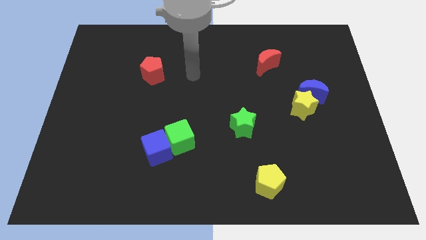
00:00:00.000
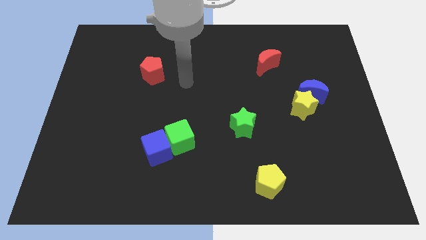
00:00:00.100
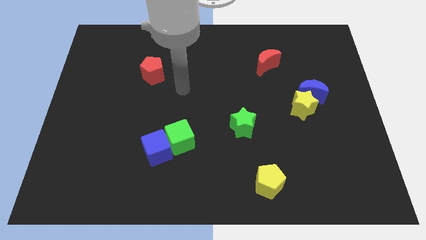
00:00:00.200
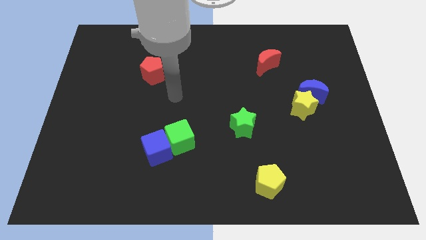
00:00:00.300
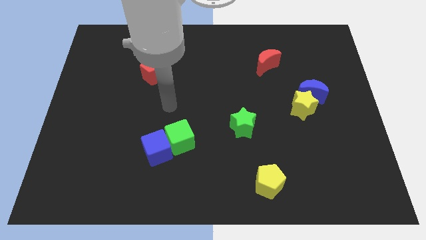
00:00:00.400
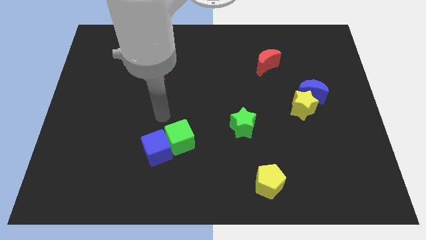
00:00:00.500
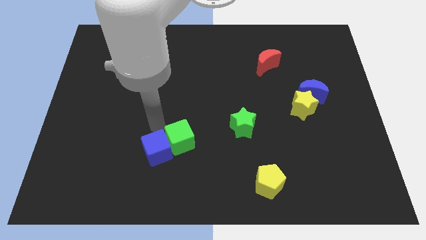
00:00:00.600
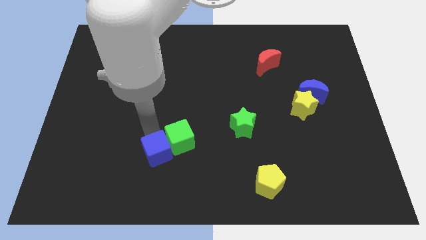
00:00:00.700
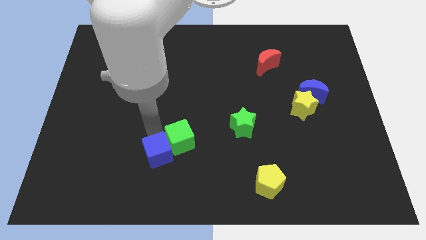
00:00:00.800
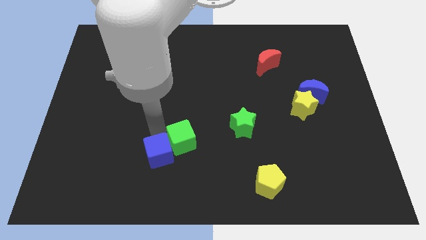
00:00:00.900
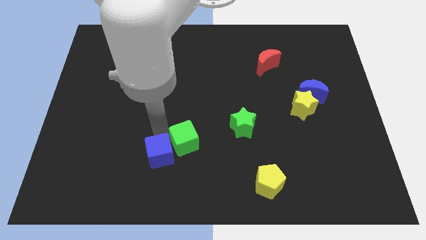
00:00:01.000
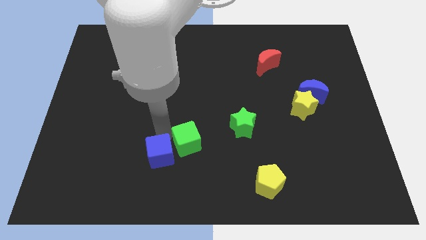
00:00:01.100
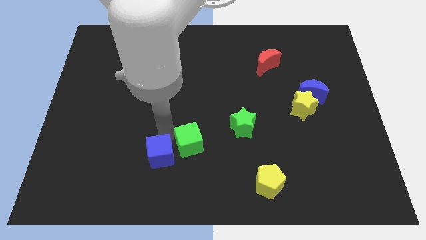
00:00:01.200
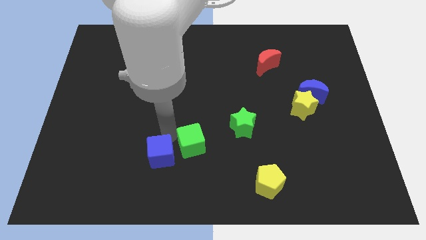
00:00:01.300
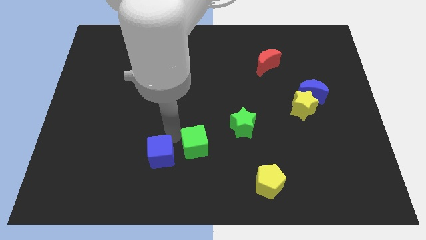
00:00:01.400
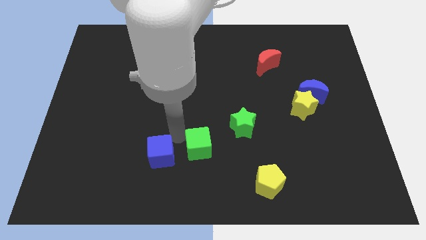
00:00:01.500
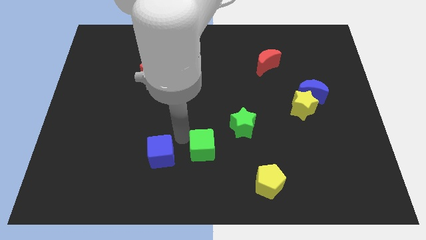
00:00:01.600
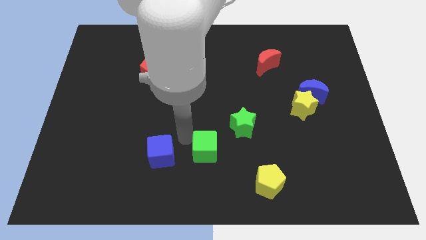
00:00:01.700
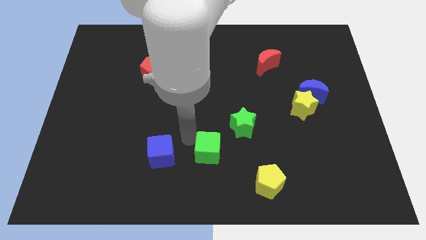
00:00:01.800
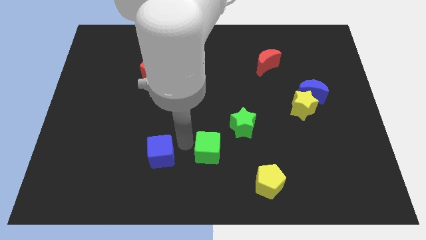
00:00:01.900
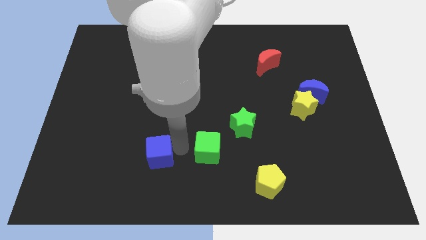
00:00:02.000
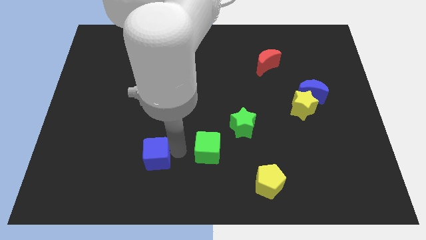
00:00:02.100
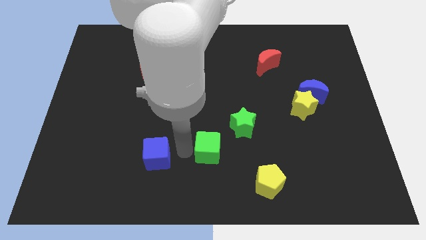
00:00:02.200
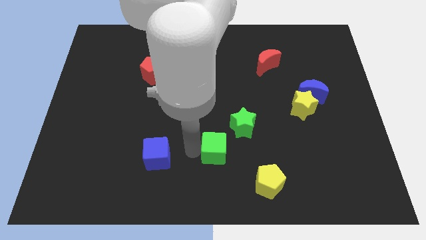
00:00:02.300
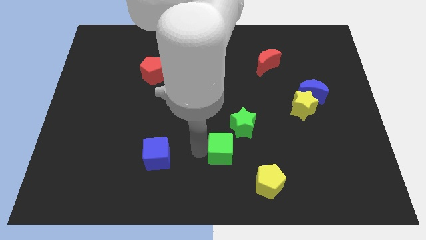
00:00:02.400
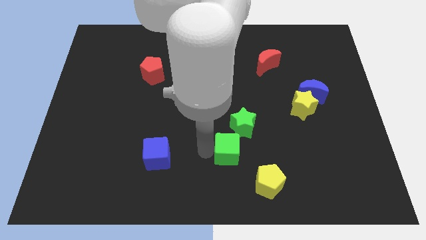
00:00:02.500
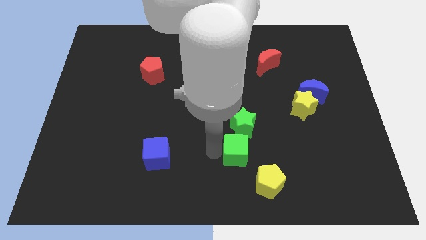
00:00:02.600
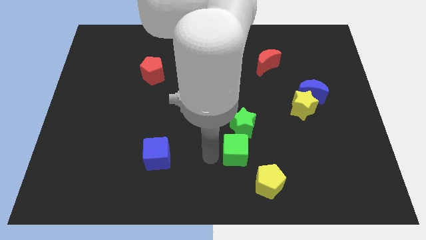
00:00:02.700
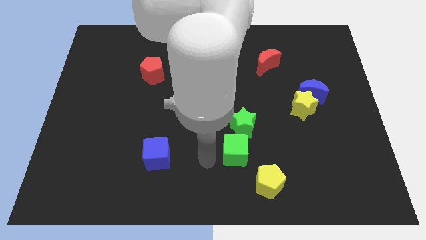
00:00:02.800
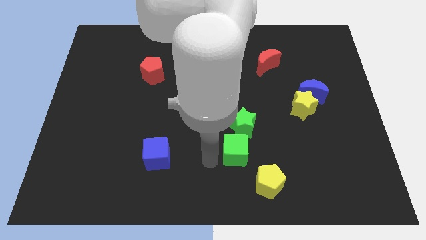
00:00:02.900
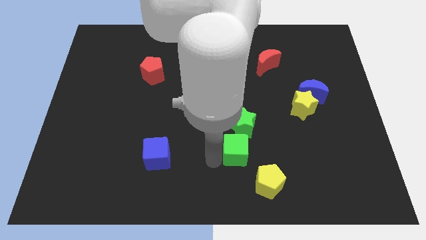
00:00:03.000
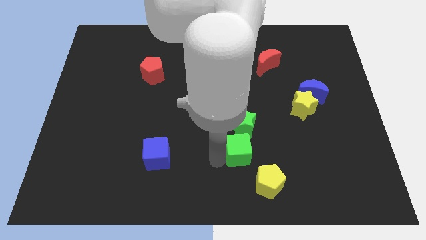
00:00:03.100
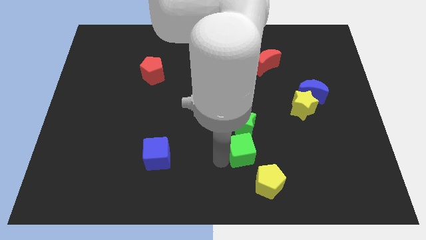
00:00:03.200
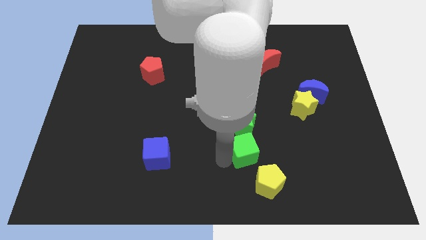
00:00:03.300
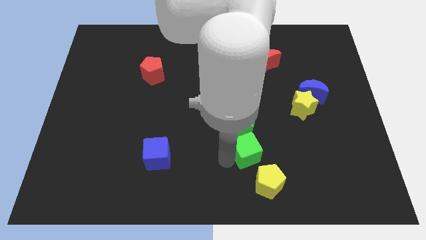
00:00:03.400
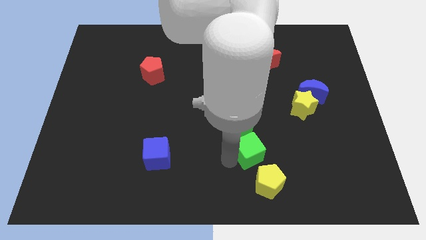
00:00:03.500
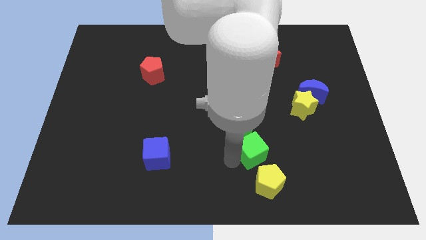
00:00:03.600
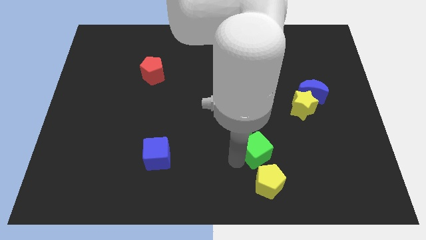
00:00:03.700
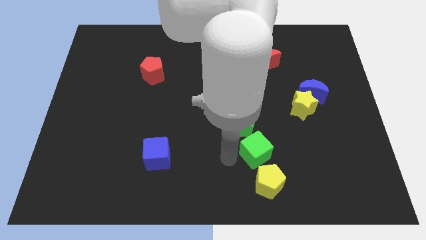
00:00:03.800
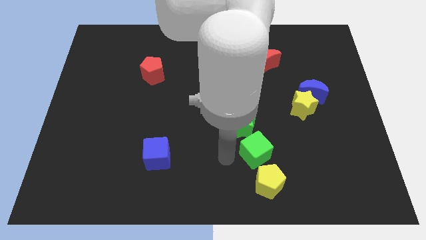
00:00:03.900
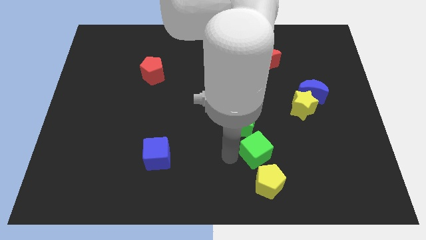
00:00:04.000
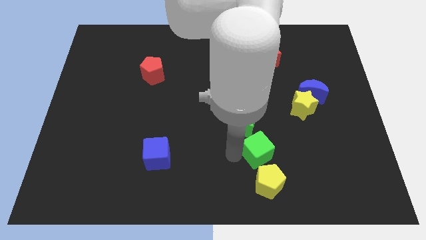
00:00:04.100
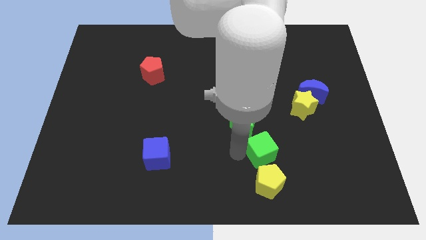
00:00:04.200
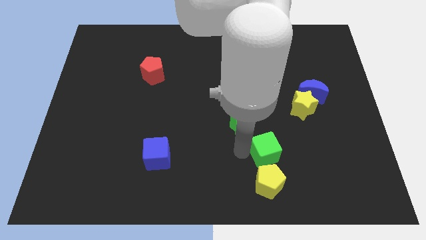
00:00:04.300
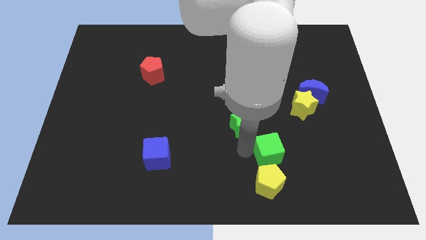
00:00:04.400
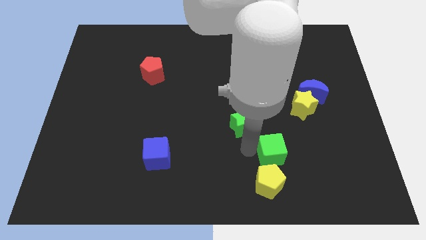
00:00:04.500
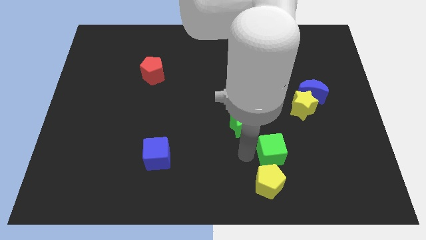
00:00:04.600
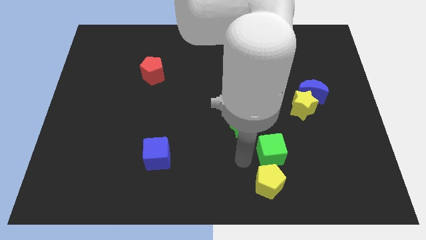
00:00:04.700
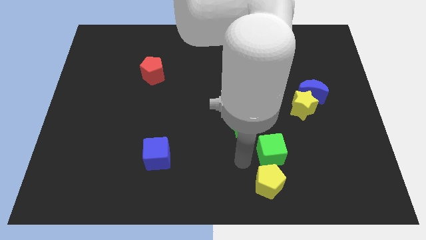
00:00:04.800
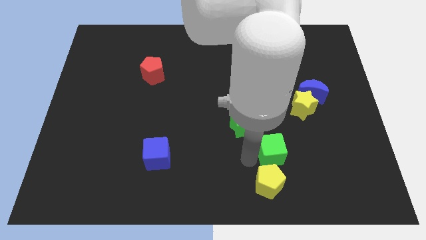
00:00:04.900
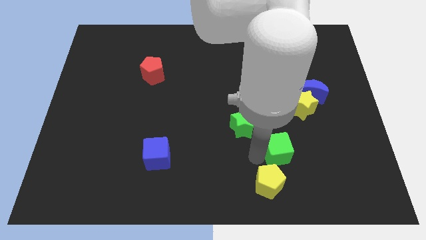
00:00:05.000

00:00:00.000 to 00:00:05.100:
slide the green cube to the right

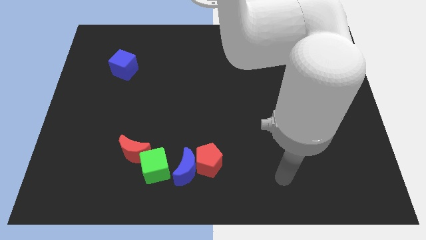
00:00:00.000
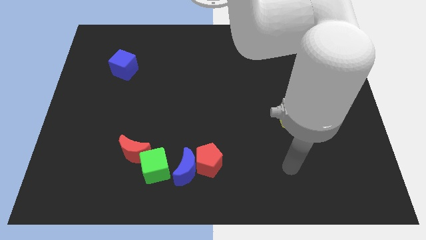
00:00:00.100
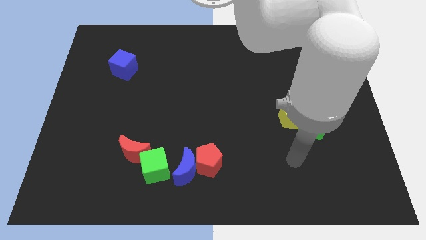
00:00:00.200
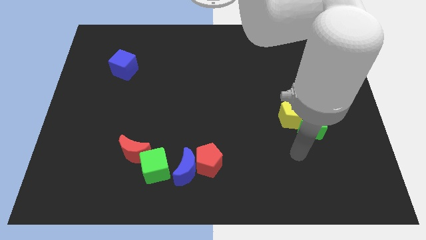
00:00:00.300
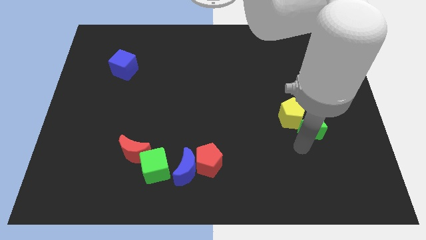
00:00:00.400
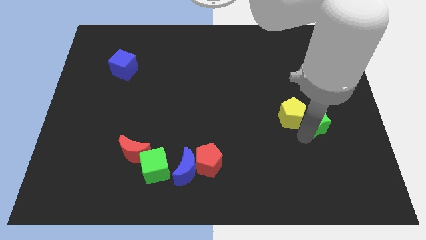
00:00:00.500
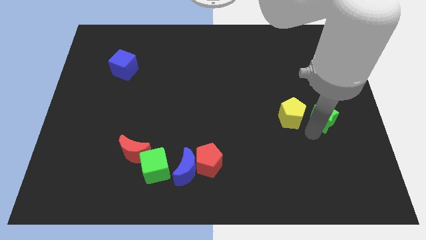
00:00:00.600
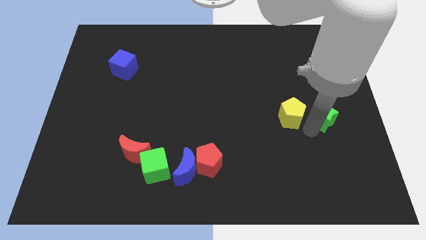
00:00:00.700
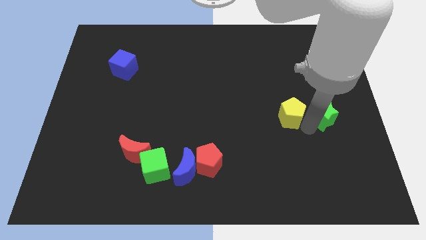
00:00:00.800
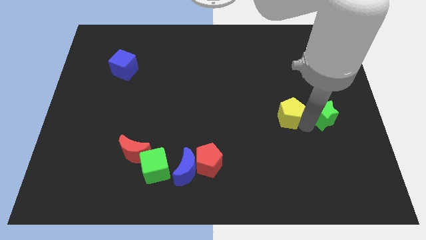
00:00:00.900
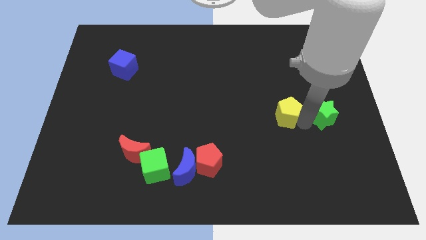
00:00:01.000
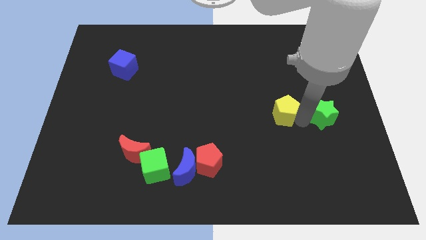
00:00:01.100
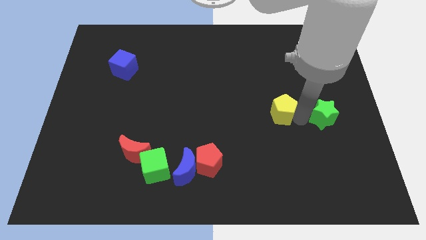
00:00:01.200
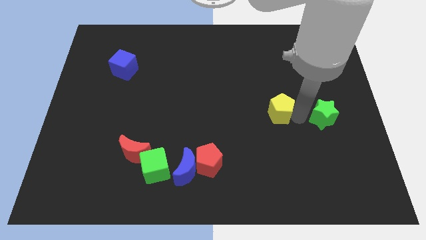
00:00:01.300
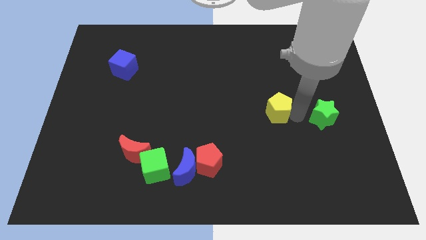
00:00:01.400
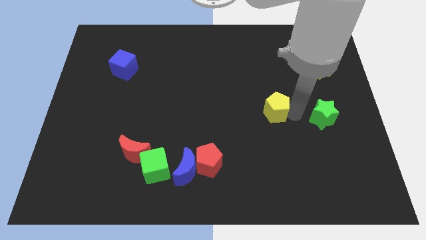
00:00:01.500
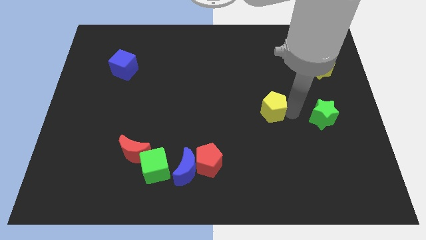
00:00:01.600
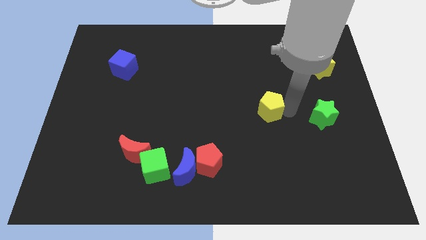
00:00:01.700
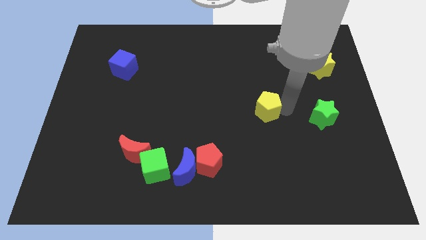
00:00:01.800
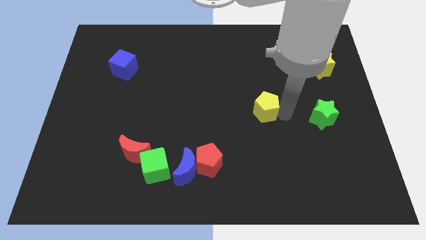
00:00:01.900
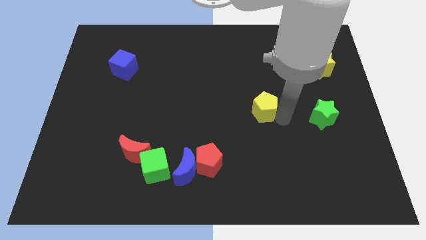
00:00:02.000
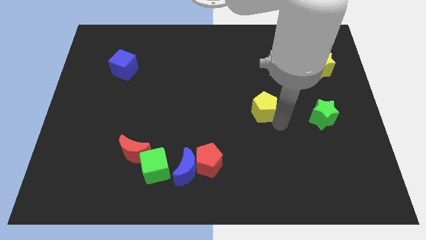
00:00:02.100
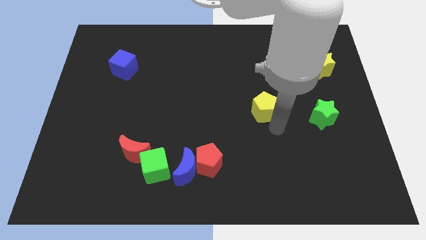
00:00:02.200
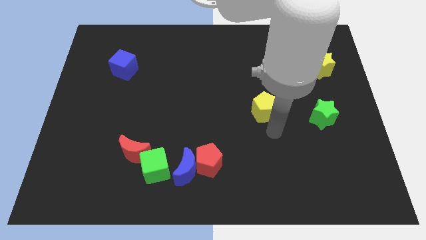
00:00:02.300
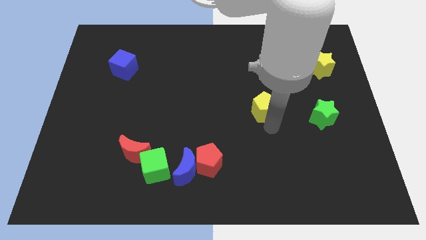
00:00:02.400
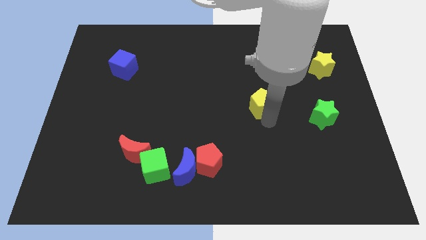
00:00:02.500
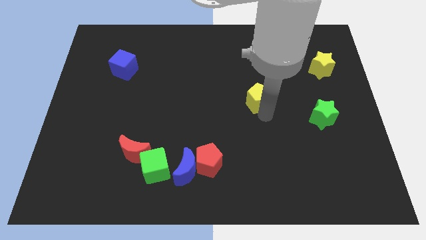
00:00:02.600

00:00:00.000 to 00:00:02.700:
slightly push the yellow pentagon diagonally up and left
